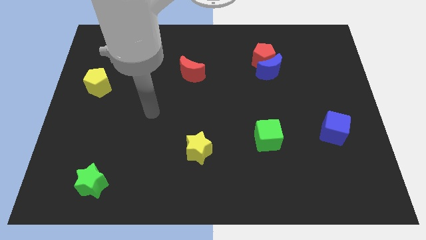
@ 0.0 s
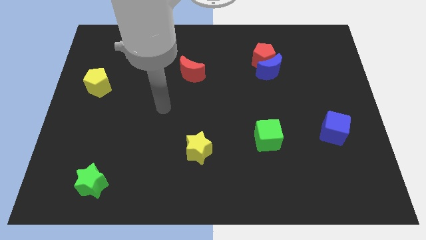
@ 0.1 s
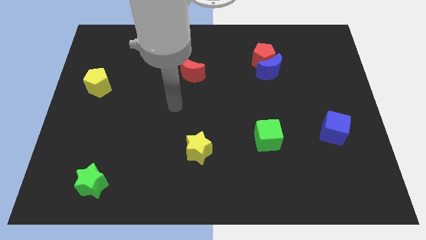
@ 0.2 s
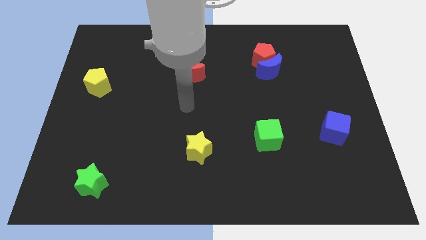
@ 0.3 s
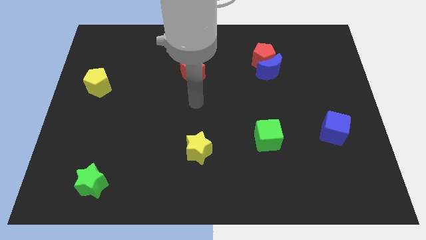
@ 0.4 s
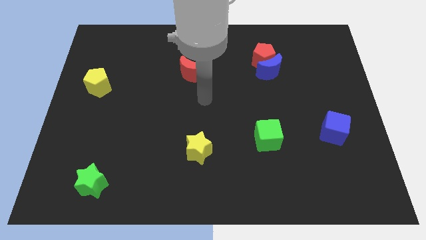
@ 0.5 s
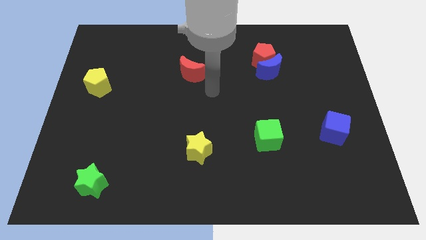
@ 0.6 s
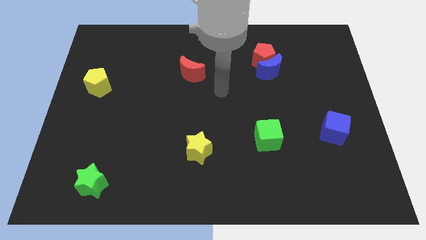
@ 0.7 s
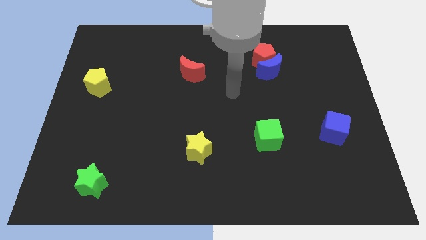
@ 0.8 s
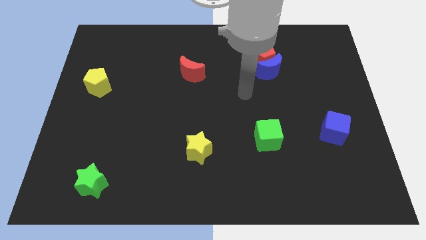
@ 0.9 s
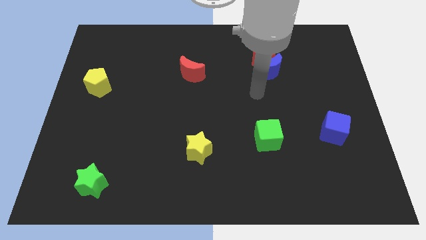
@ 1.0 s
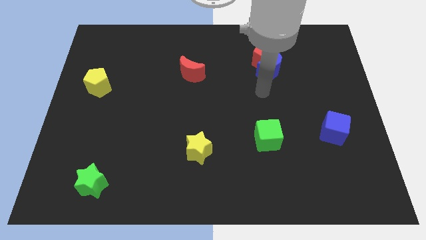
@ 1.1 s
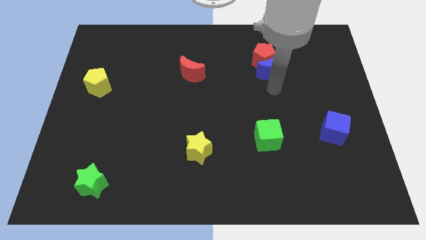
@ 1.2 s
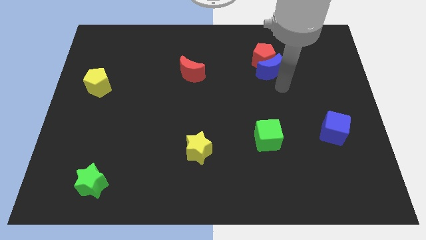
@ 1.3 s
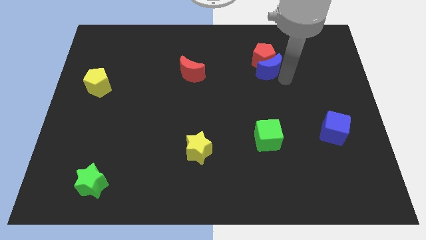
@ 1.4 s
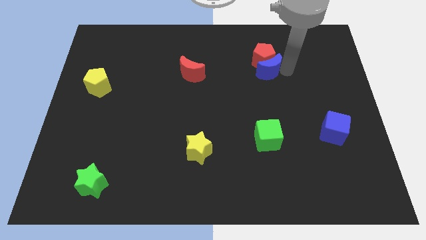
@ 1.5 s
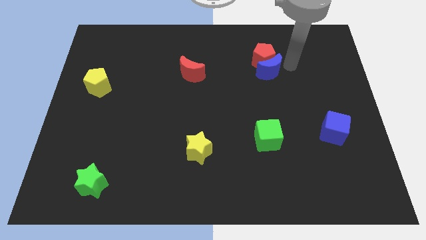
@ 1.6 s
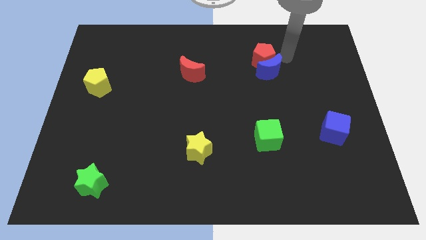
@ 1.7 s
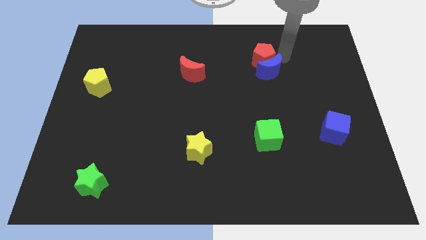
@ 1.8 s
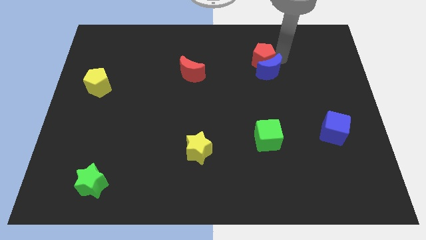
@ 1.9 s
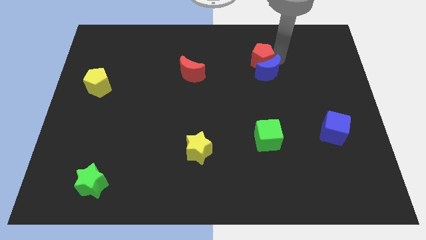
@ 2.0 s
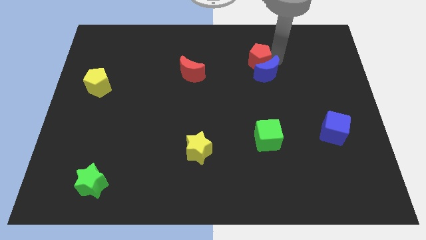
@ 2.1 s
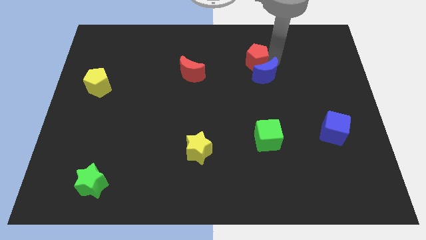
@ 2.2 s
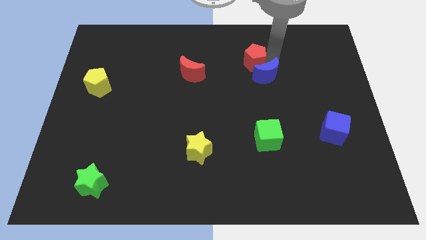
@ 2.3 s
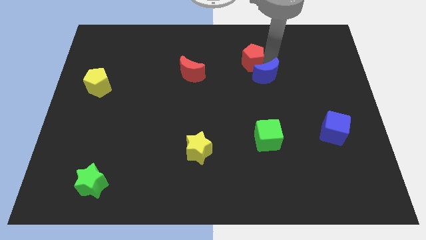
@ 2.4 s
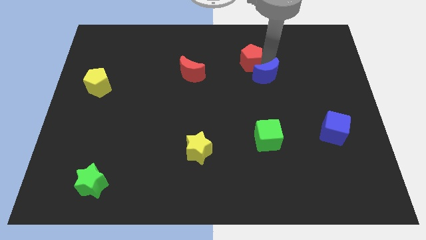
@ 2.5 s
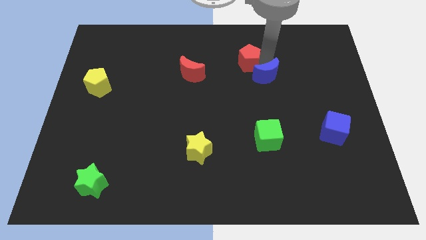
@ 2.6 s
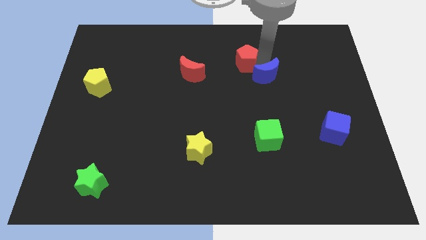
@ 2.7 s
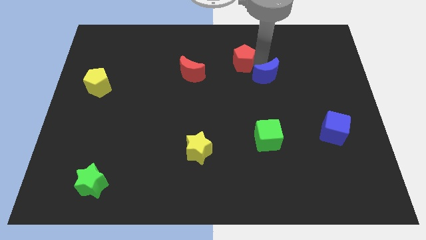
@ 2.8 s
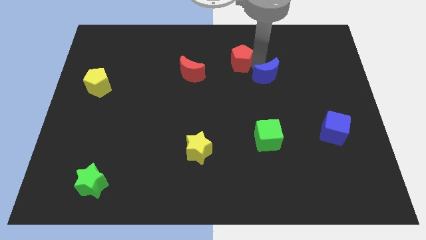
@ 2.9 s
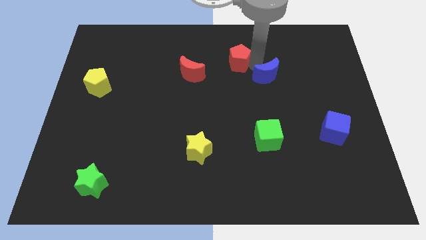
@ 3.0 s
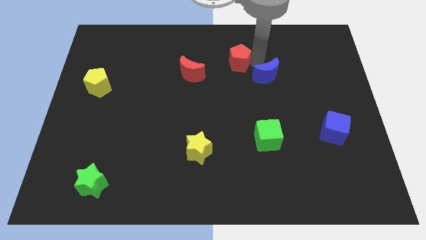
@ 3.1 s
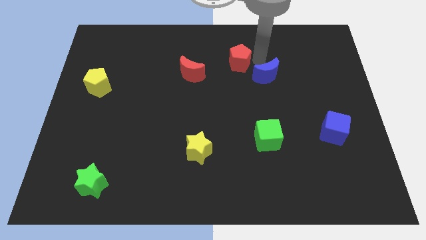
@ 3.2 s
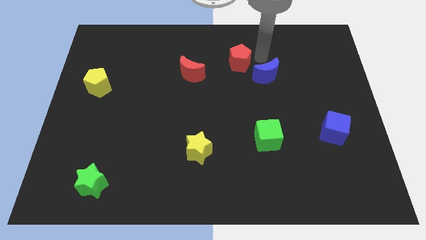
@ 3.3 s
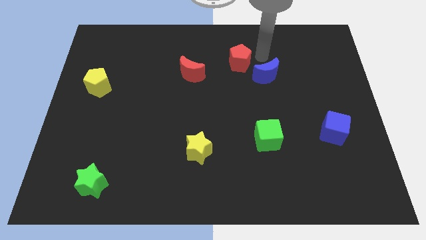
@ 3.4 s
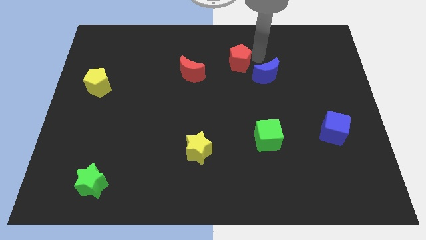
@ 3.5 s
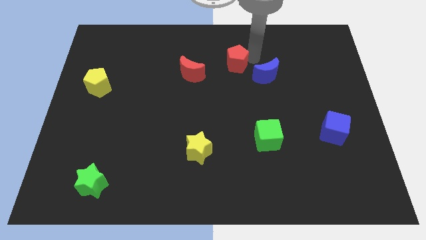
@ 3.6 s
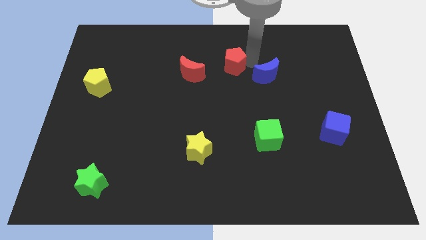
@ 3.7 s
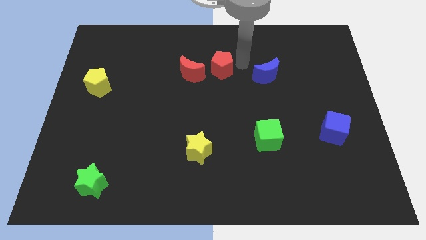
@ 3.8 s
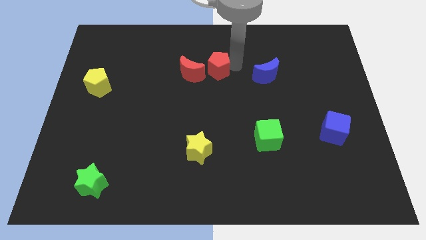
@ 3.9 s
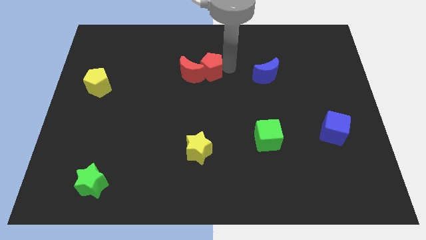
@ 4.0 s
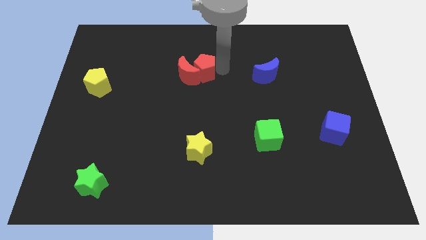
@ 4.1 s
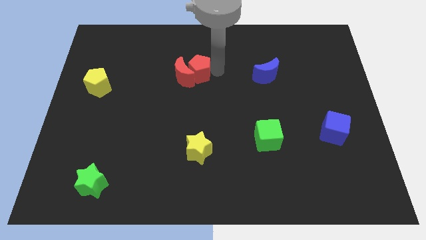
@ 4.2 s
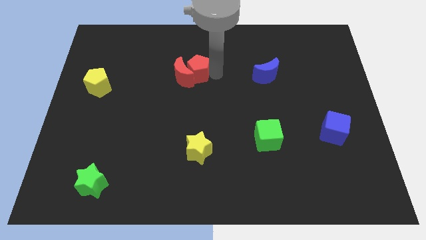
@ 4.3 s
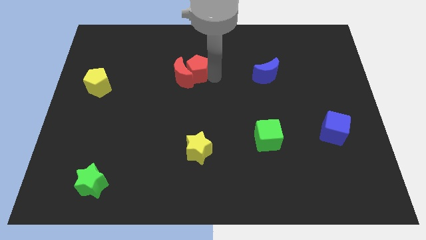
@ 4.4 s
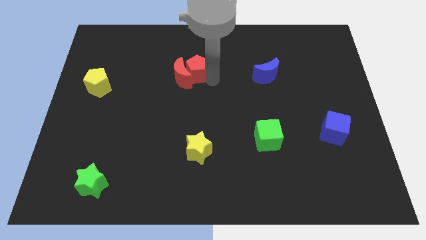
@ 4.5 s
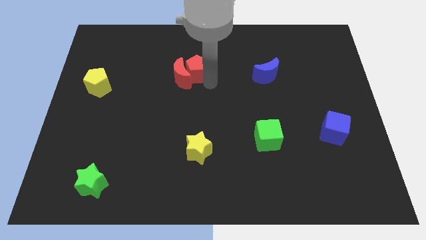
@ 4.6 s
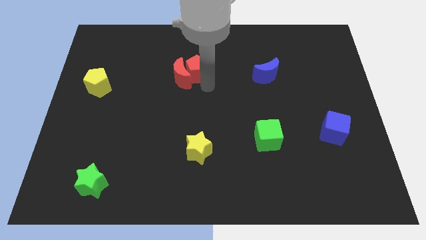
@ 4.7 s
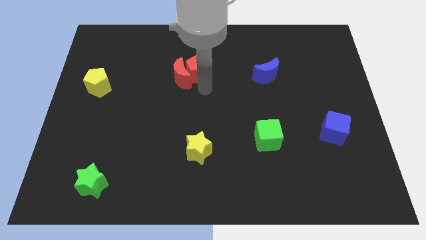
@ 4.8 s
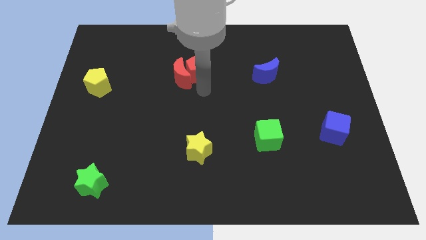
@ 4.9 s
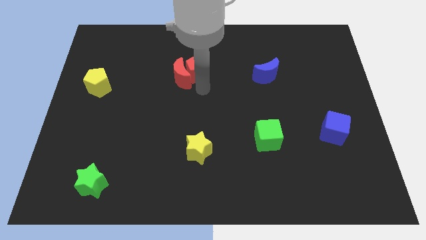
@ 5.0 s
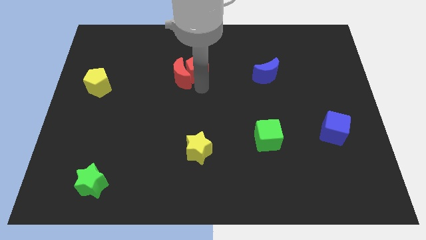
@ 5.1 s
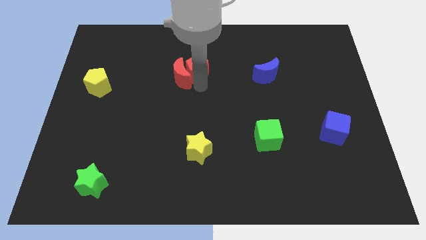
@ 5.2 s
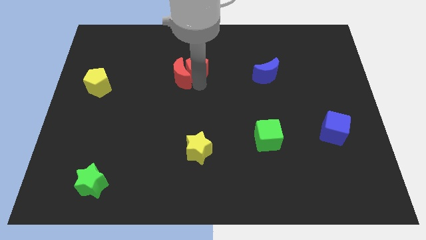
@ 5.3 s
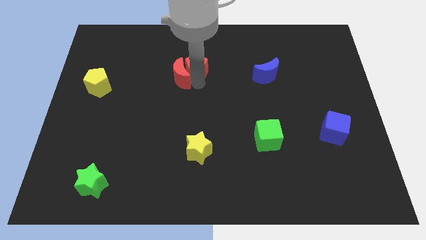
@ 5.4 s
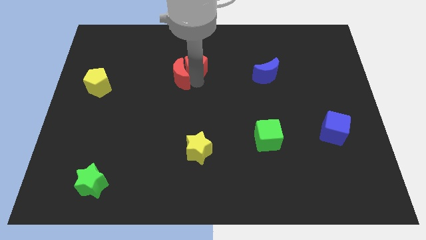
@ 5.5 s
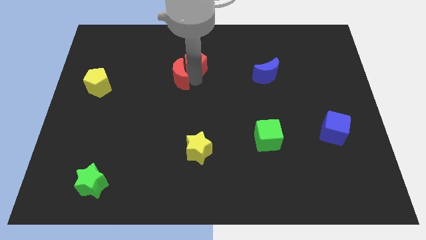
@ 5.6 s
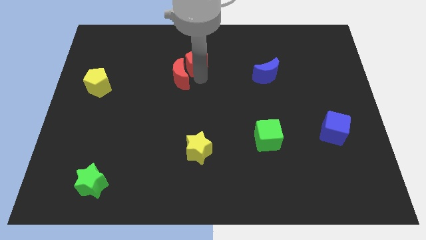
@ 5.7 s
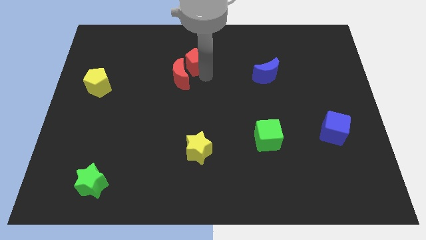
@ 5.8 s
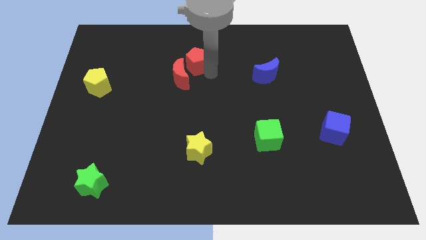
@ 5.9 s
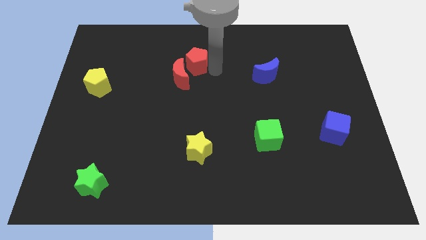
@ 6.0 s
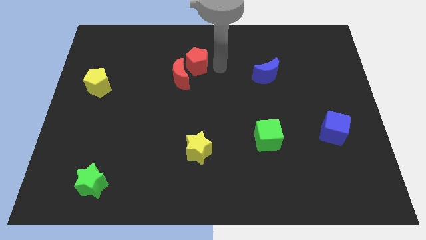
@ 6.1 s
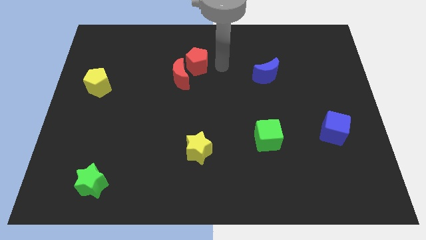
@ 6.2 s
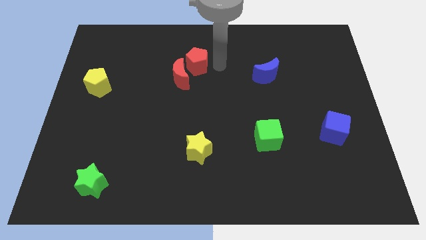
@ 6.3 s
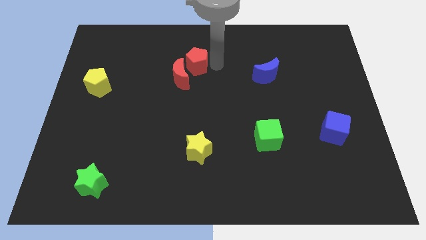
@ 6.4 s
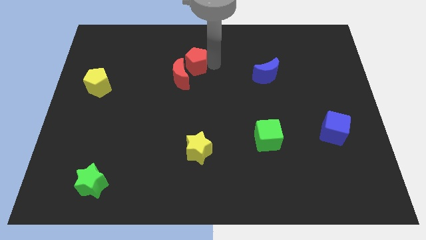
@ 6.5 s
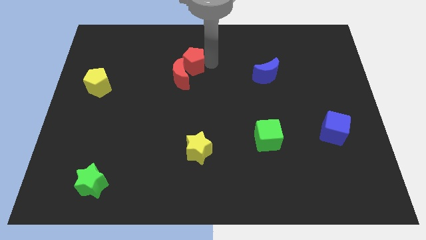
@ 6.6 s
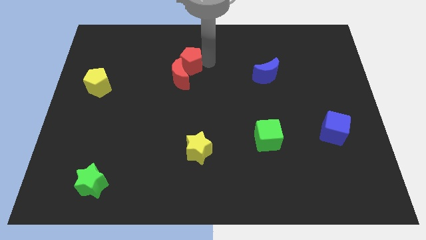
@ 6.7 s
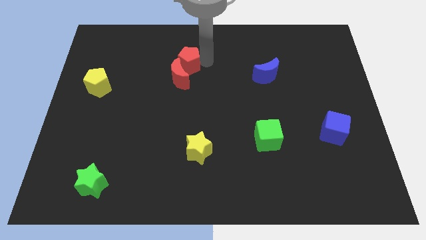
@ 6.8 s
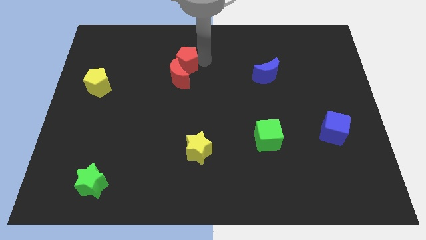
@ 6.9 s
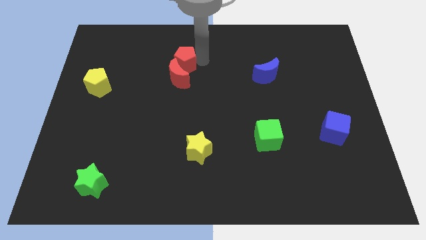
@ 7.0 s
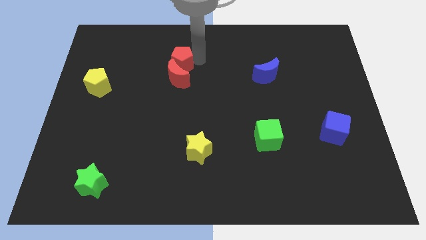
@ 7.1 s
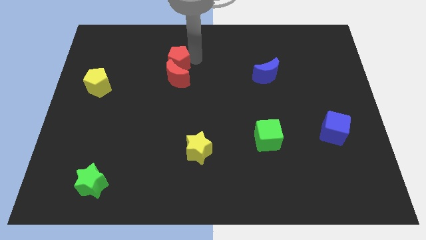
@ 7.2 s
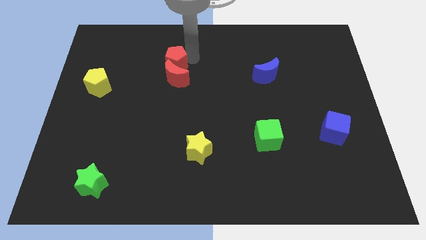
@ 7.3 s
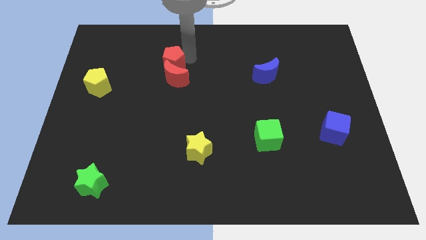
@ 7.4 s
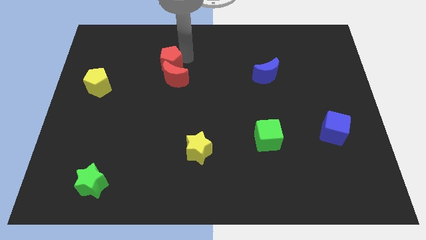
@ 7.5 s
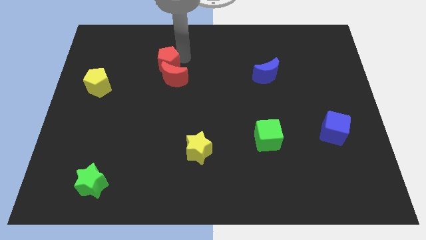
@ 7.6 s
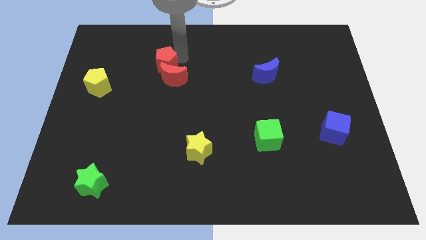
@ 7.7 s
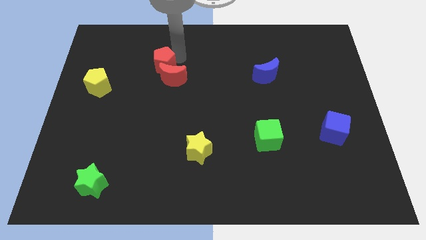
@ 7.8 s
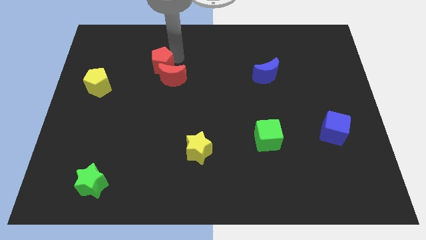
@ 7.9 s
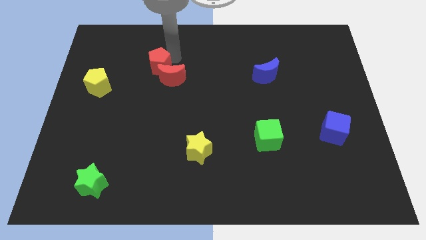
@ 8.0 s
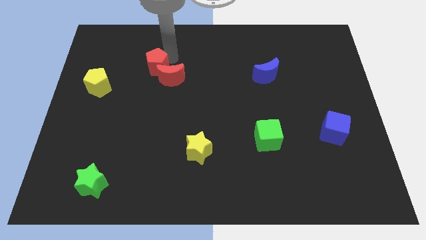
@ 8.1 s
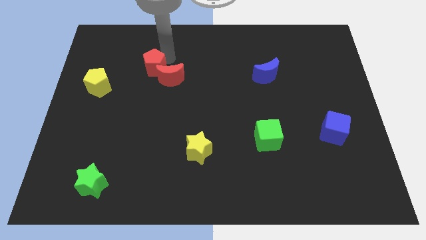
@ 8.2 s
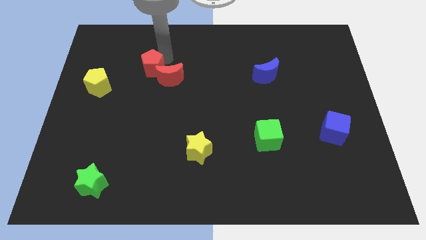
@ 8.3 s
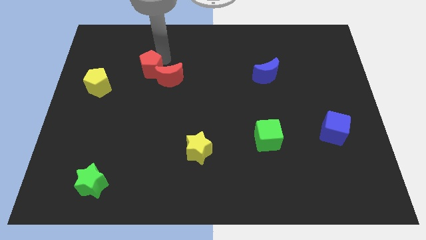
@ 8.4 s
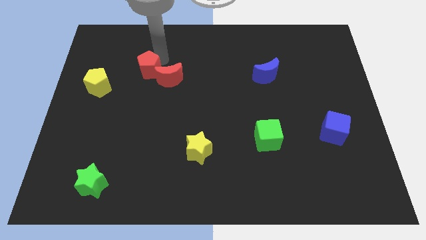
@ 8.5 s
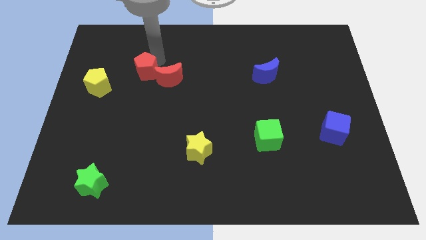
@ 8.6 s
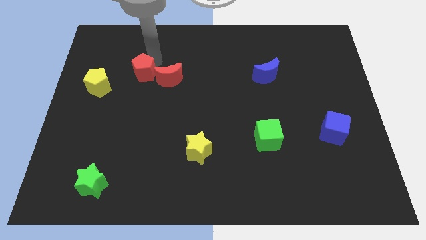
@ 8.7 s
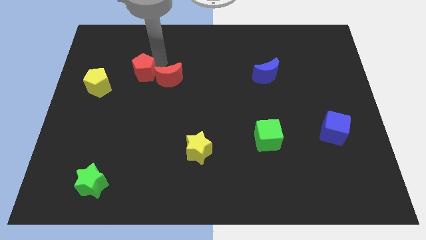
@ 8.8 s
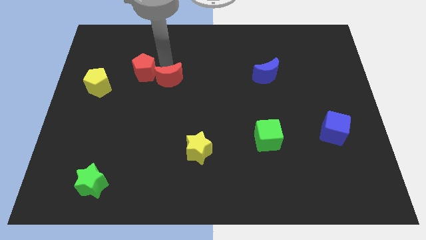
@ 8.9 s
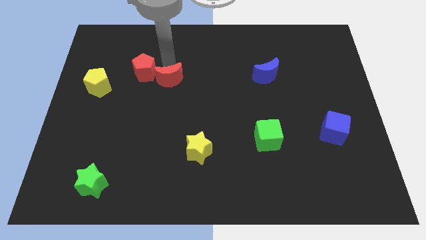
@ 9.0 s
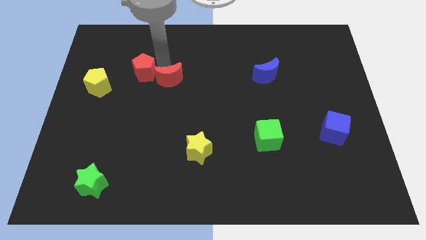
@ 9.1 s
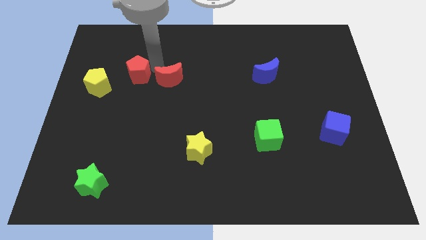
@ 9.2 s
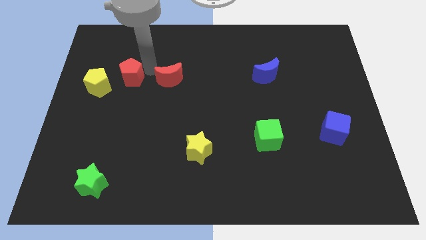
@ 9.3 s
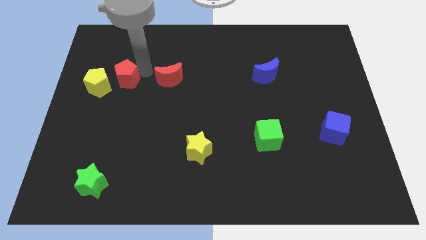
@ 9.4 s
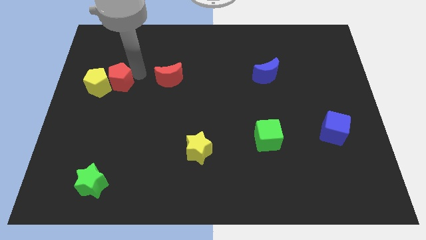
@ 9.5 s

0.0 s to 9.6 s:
move the red pentagon close to the yellow pentagon
